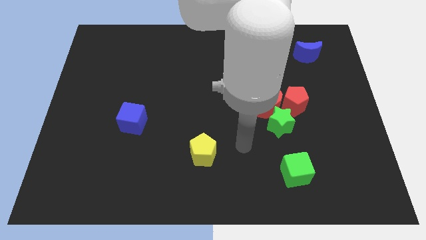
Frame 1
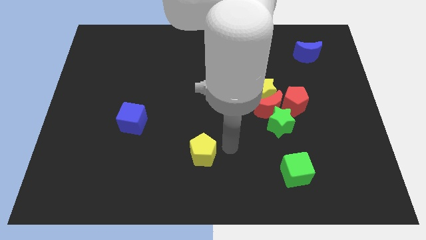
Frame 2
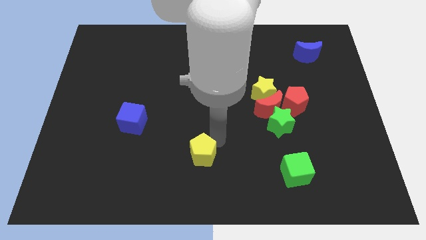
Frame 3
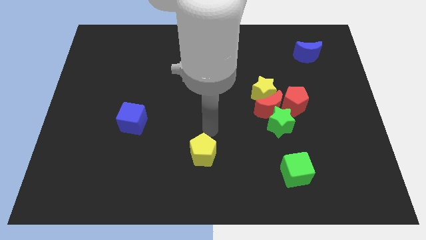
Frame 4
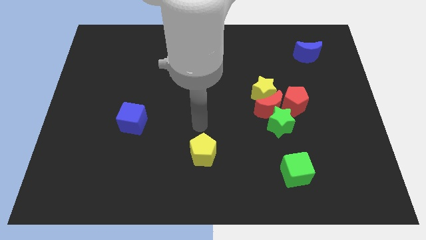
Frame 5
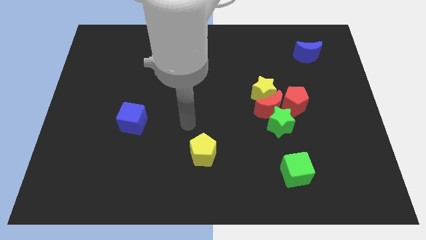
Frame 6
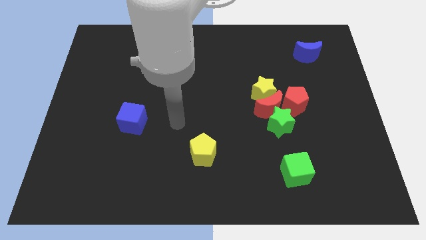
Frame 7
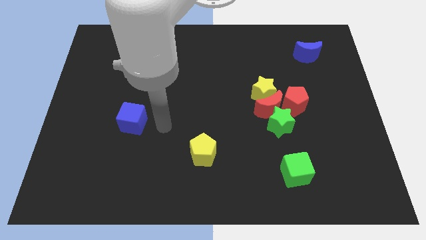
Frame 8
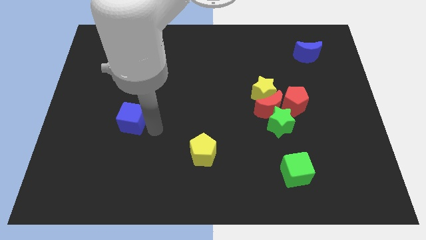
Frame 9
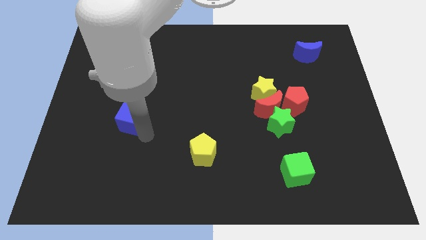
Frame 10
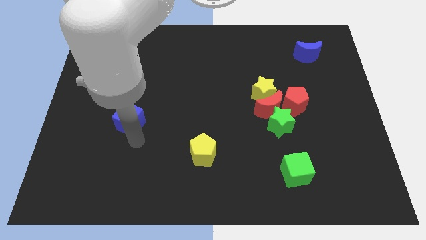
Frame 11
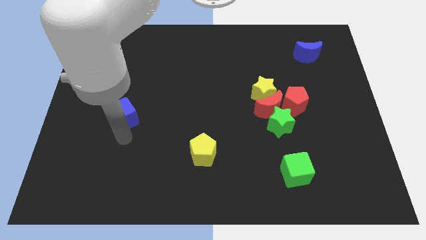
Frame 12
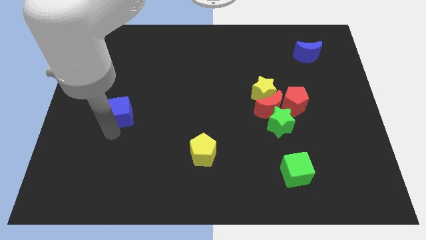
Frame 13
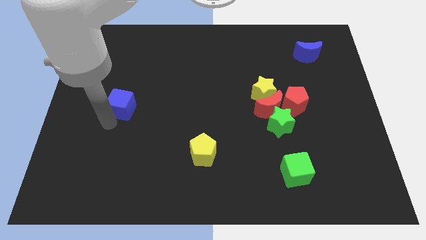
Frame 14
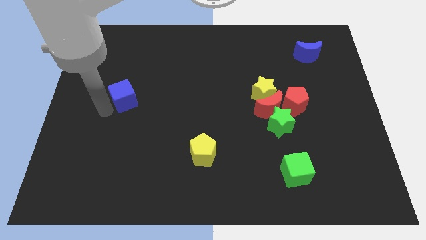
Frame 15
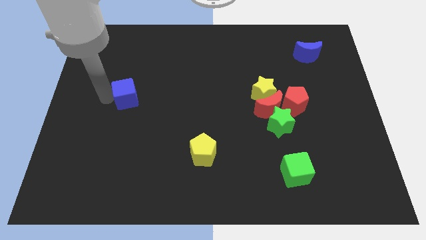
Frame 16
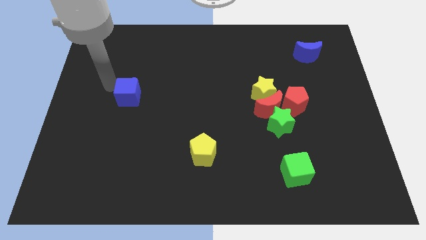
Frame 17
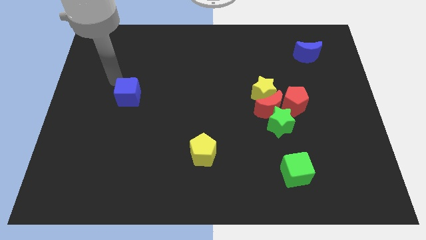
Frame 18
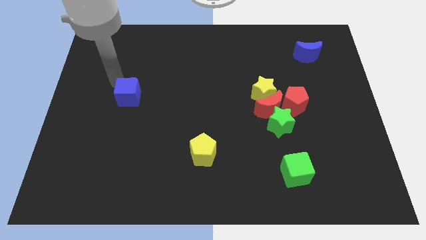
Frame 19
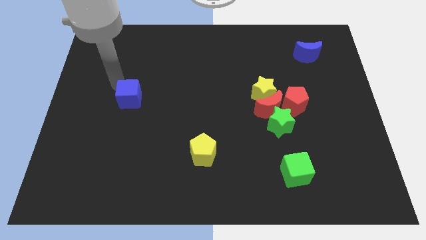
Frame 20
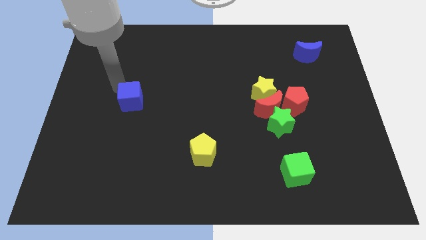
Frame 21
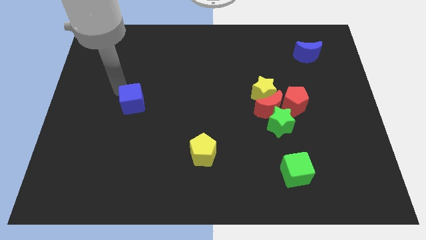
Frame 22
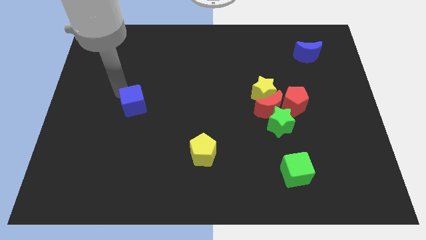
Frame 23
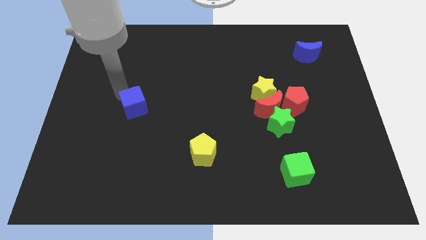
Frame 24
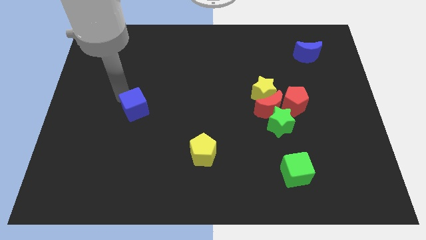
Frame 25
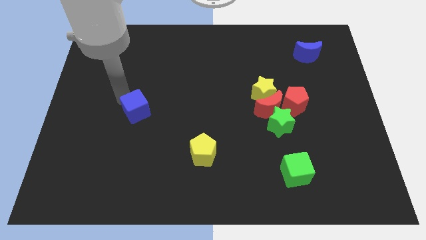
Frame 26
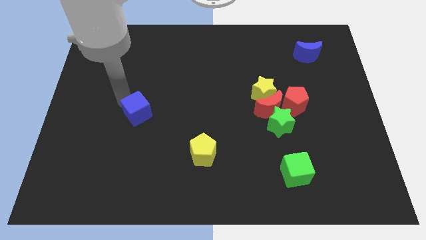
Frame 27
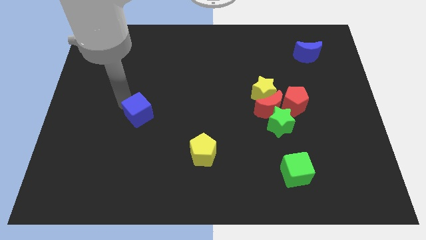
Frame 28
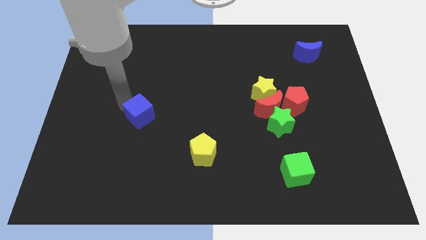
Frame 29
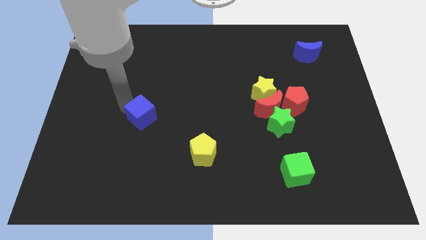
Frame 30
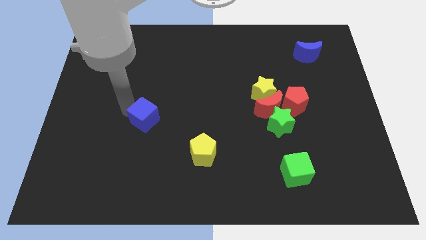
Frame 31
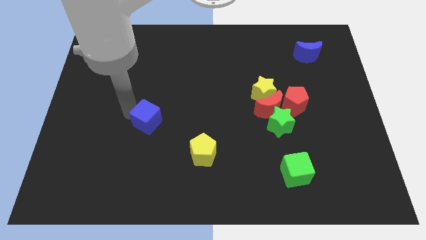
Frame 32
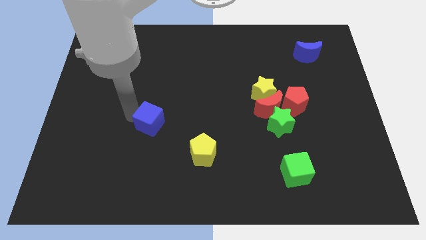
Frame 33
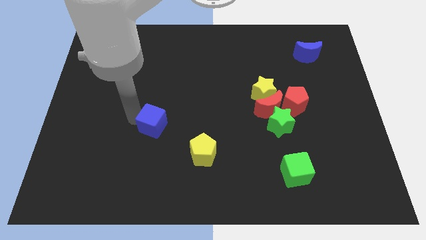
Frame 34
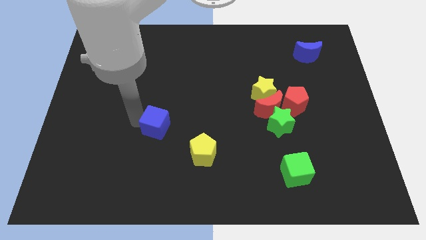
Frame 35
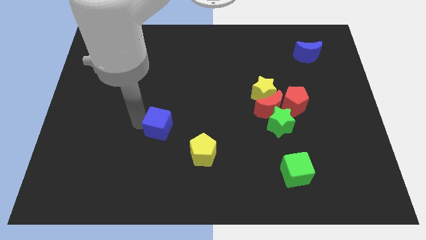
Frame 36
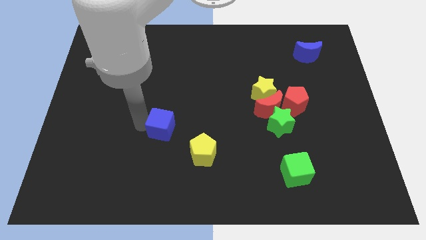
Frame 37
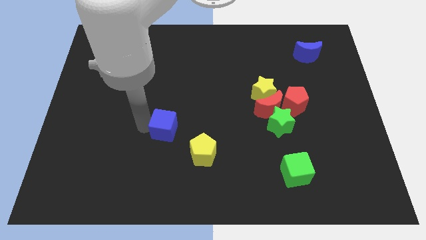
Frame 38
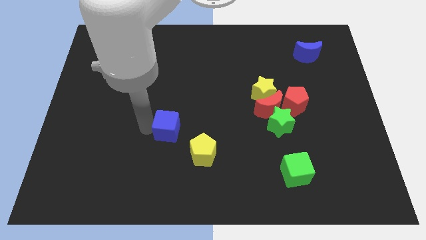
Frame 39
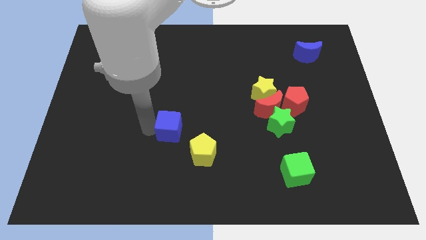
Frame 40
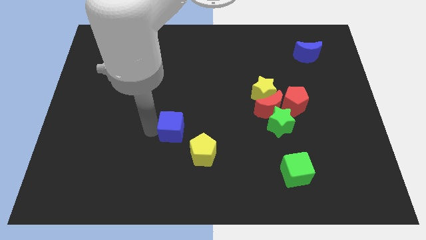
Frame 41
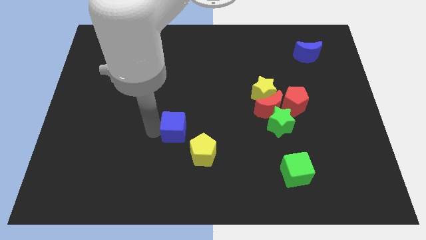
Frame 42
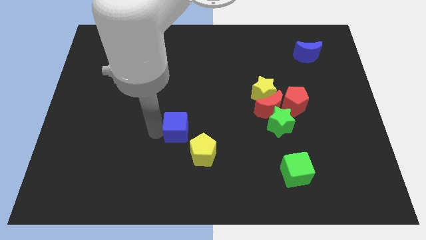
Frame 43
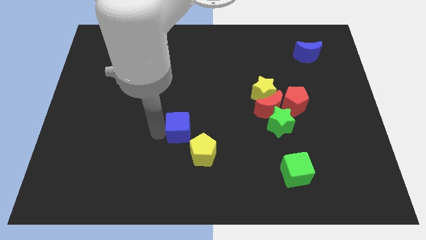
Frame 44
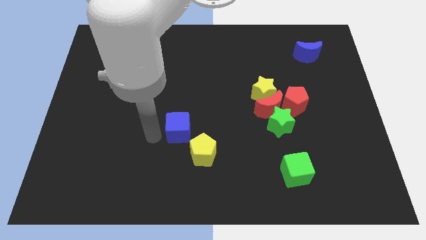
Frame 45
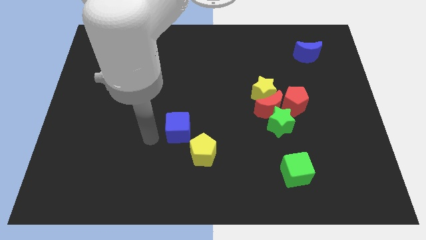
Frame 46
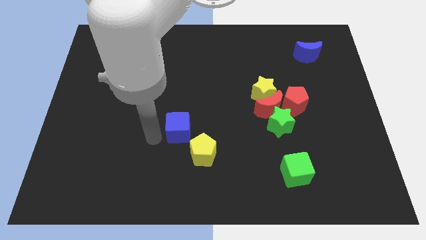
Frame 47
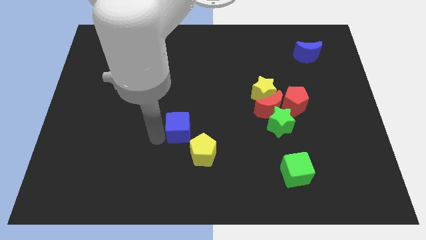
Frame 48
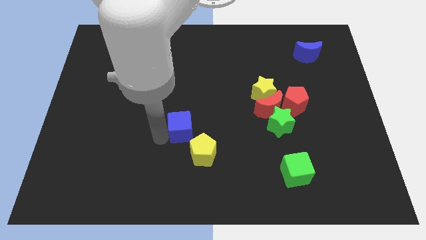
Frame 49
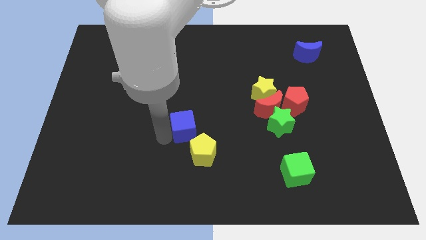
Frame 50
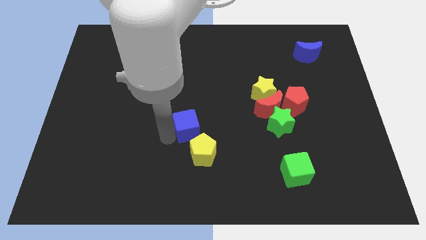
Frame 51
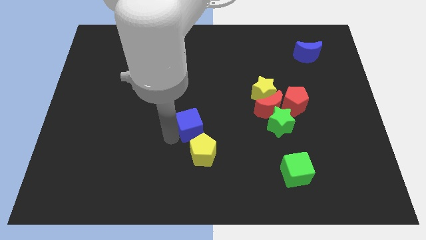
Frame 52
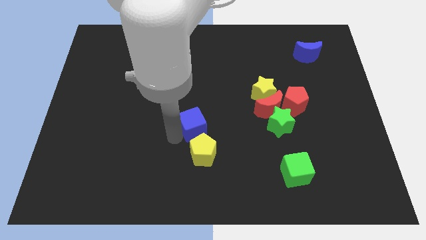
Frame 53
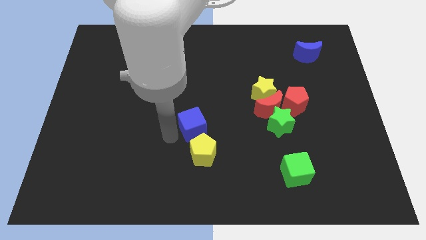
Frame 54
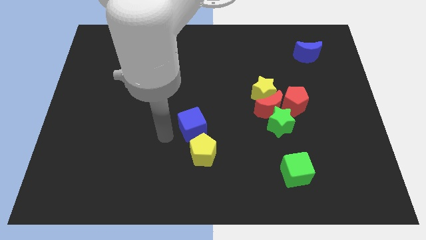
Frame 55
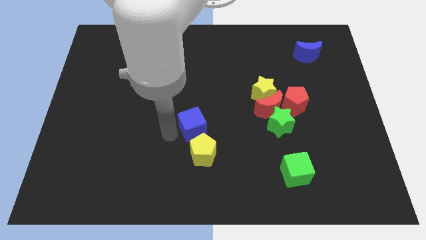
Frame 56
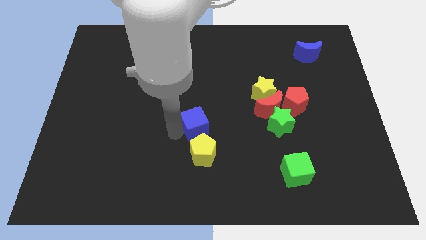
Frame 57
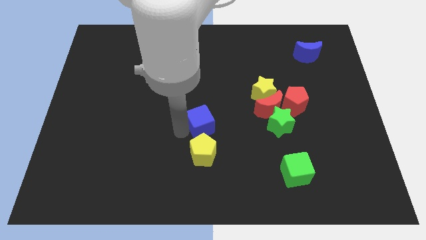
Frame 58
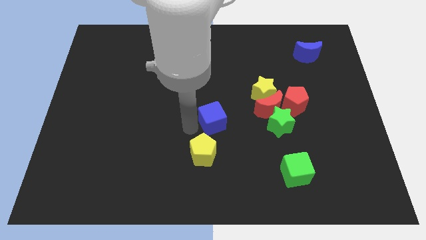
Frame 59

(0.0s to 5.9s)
push the blue cube just left of the green star
